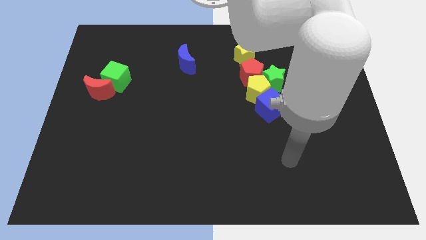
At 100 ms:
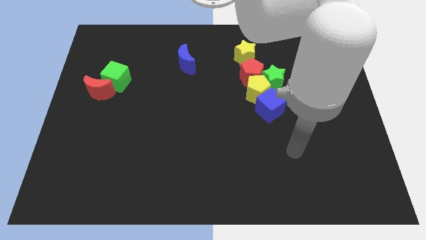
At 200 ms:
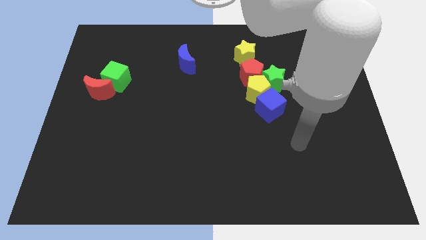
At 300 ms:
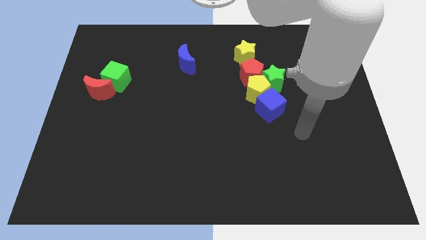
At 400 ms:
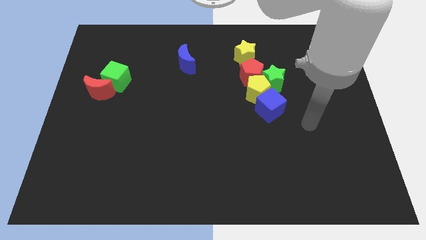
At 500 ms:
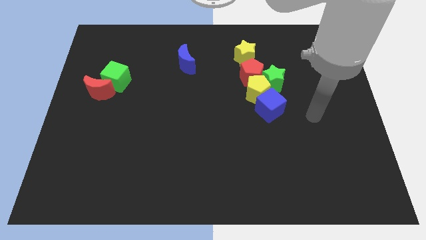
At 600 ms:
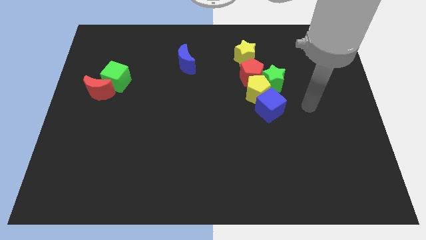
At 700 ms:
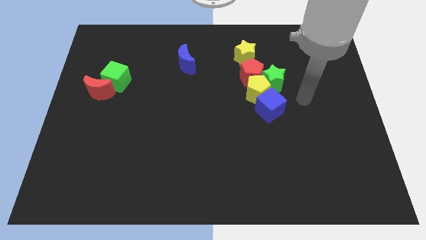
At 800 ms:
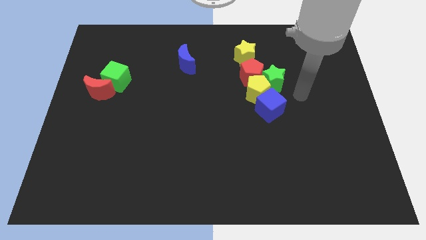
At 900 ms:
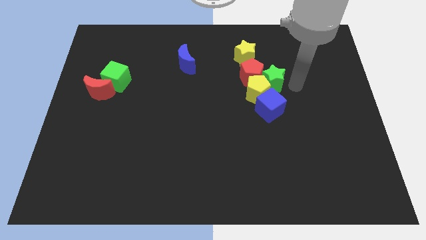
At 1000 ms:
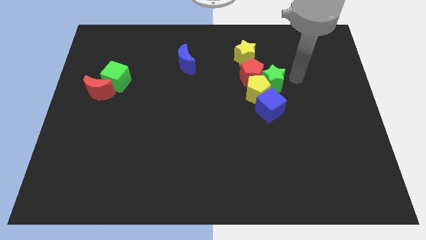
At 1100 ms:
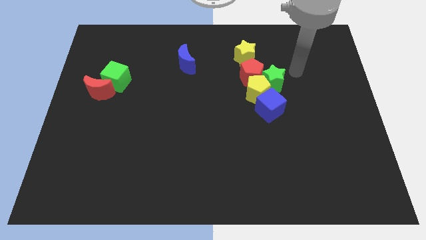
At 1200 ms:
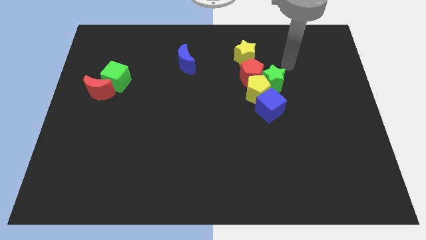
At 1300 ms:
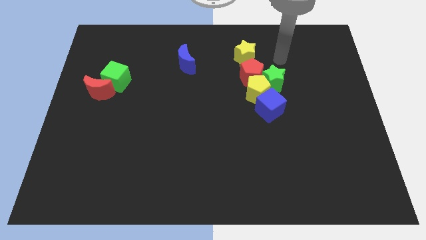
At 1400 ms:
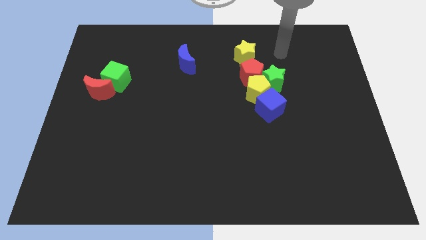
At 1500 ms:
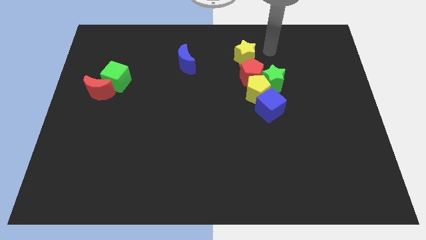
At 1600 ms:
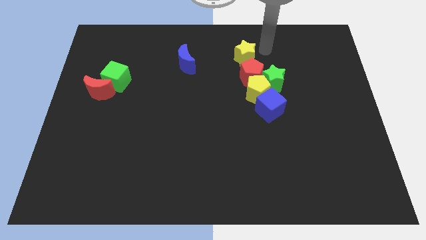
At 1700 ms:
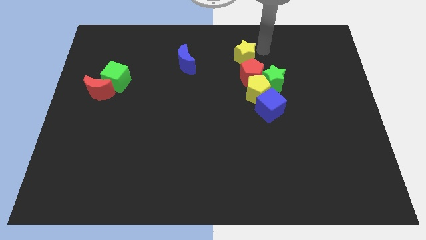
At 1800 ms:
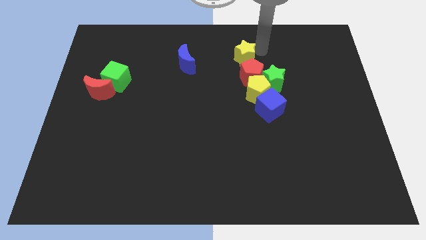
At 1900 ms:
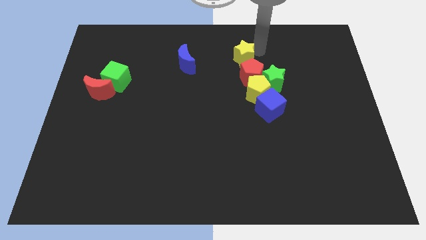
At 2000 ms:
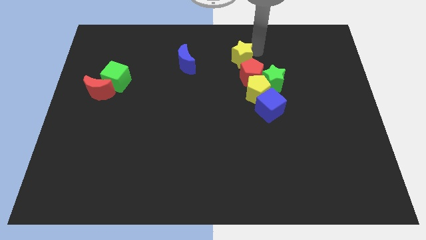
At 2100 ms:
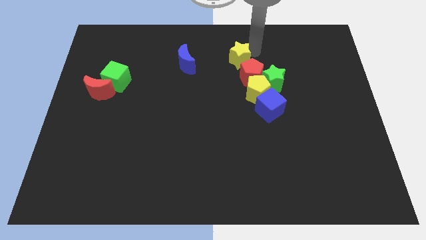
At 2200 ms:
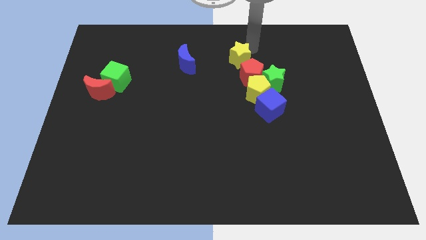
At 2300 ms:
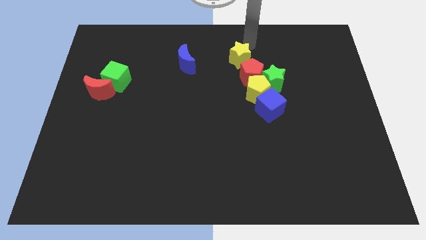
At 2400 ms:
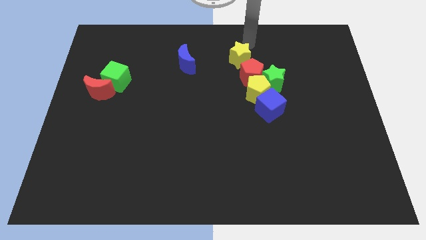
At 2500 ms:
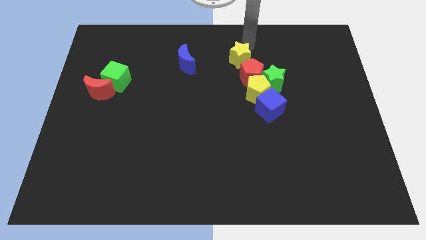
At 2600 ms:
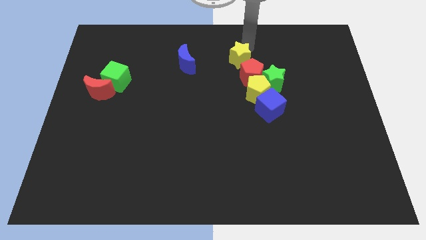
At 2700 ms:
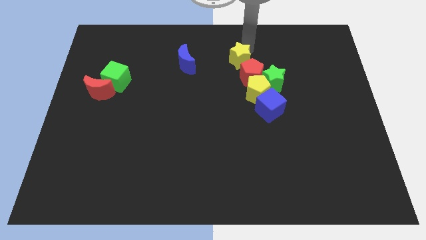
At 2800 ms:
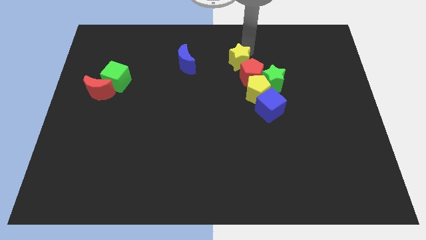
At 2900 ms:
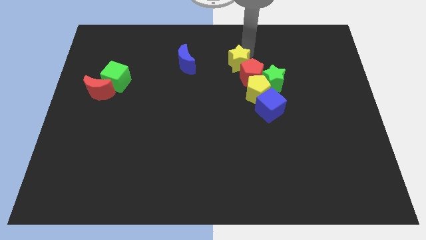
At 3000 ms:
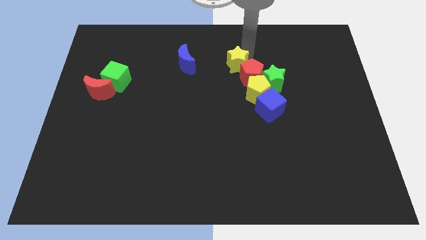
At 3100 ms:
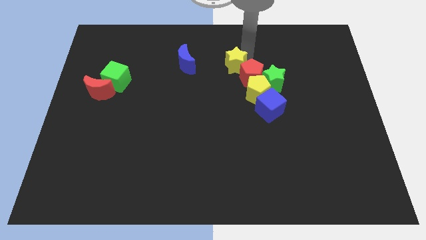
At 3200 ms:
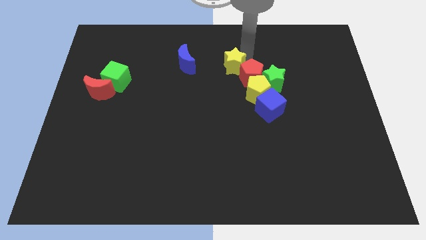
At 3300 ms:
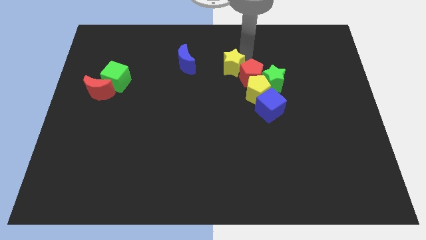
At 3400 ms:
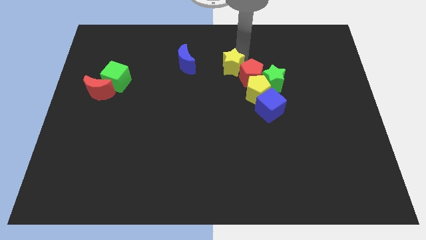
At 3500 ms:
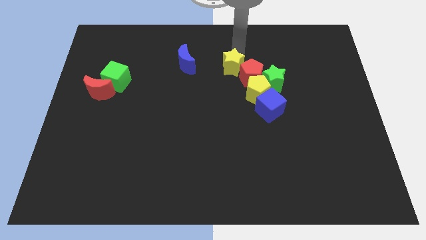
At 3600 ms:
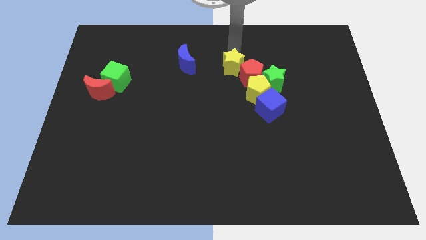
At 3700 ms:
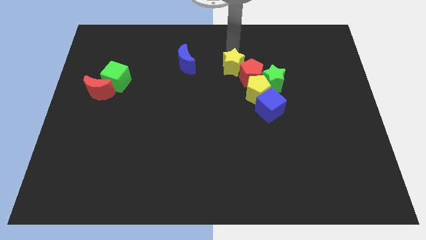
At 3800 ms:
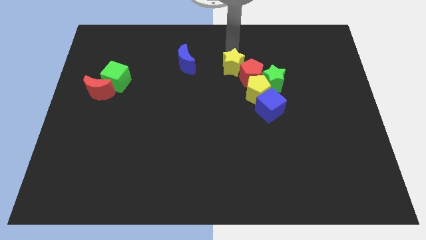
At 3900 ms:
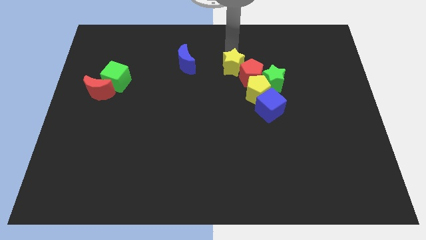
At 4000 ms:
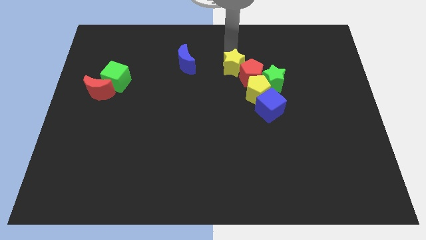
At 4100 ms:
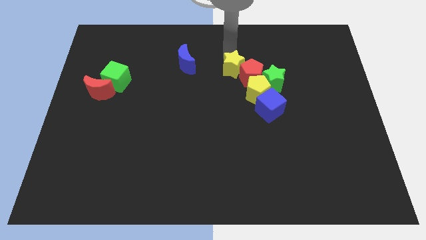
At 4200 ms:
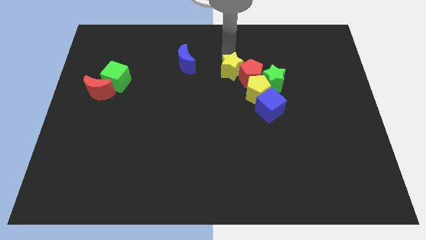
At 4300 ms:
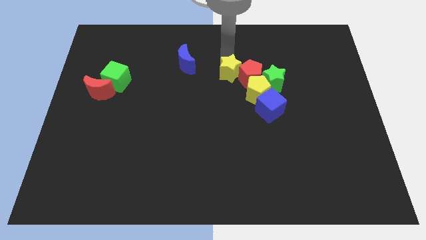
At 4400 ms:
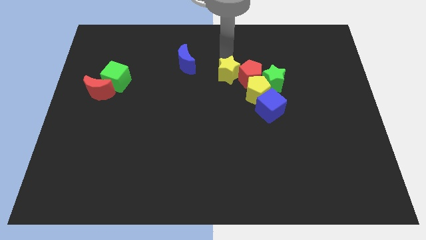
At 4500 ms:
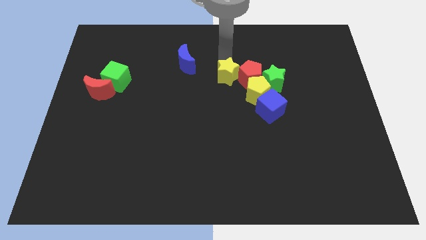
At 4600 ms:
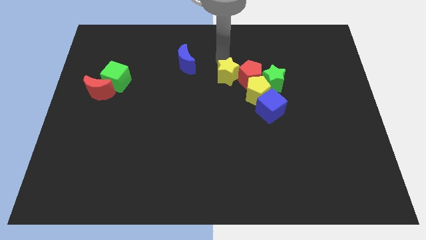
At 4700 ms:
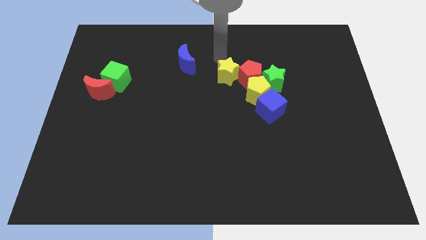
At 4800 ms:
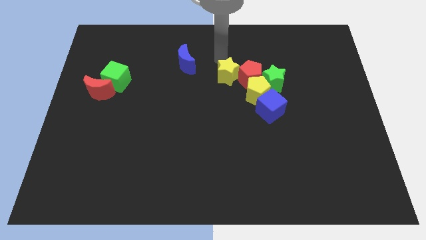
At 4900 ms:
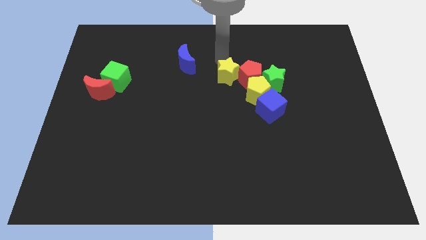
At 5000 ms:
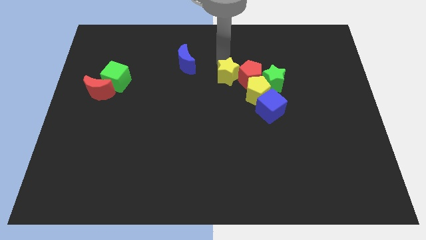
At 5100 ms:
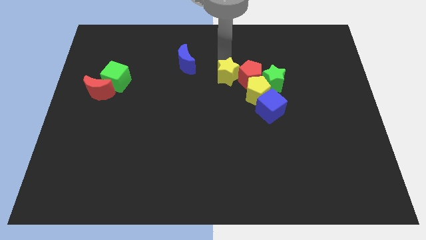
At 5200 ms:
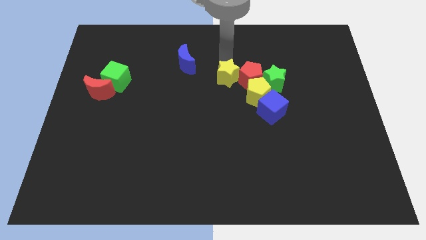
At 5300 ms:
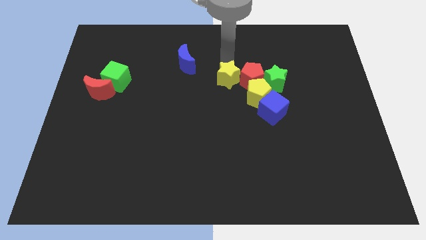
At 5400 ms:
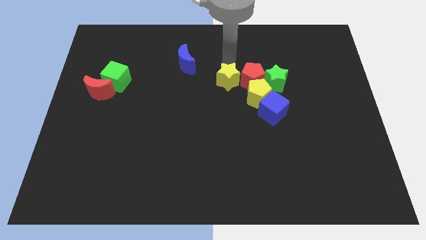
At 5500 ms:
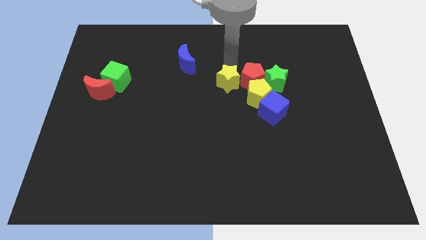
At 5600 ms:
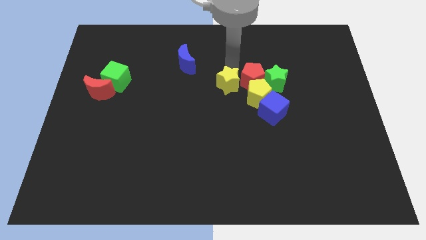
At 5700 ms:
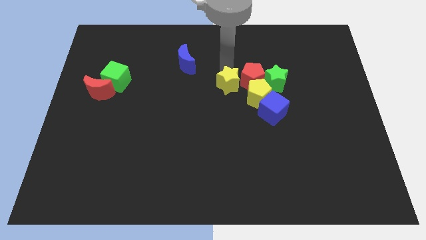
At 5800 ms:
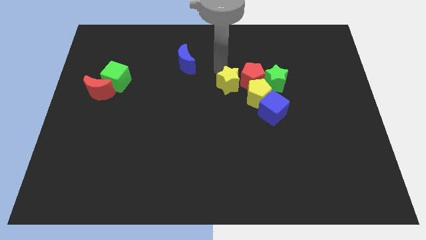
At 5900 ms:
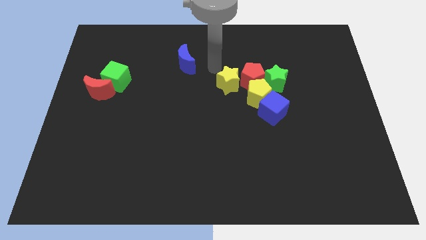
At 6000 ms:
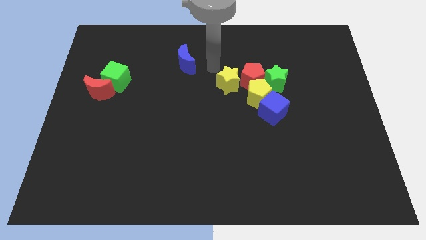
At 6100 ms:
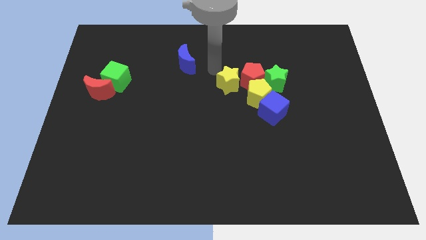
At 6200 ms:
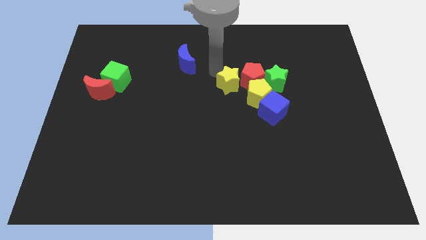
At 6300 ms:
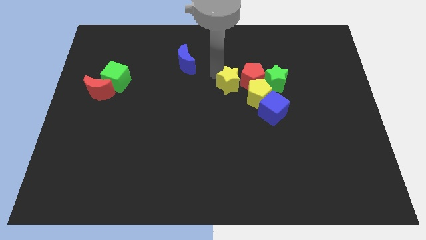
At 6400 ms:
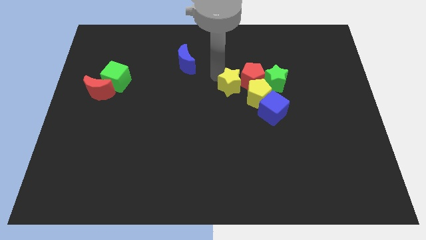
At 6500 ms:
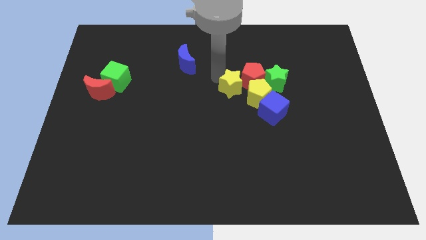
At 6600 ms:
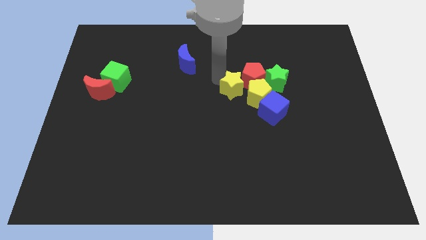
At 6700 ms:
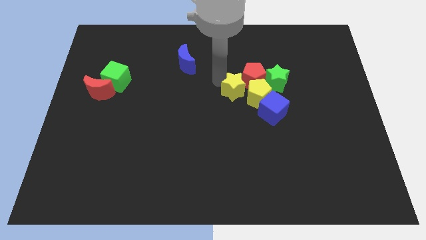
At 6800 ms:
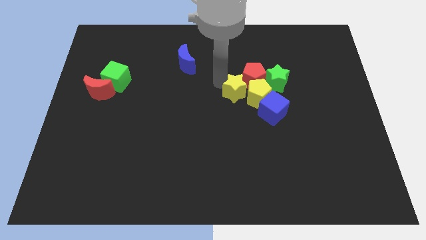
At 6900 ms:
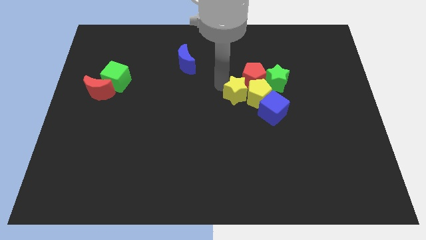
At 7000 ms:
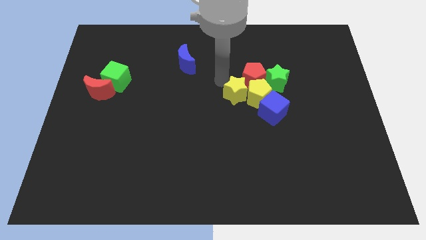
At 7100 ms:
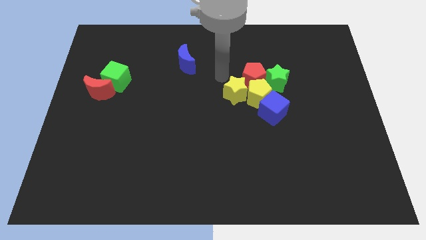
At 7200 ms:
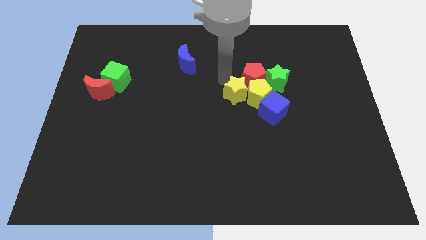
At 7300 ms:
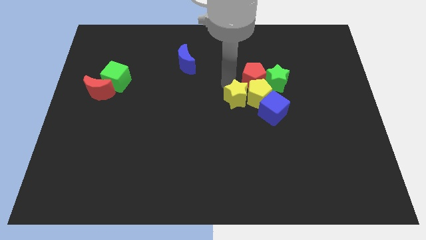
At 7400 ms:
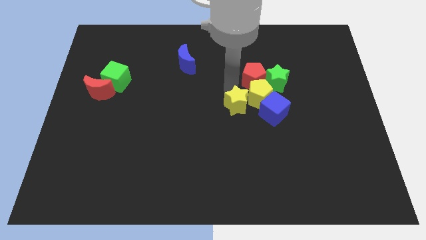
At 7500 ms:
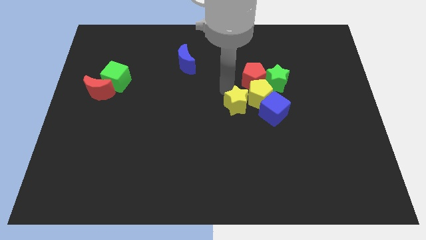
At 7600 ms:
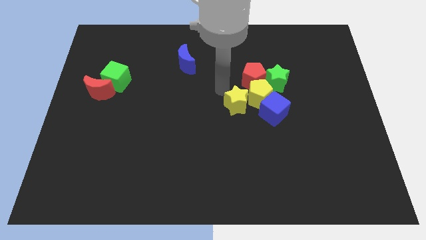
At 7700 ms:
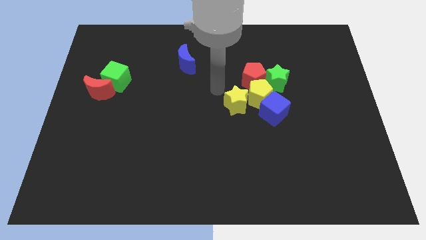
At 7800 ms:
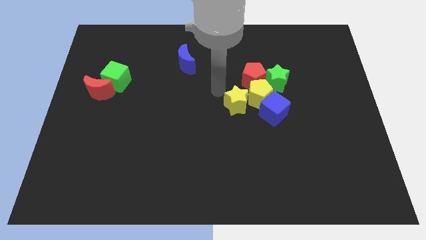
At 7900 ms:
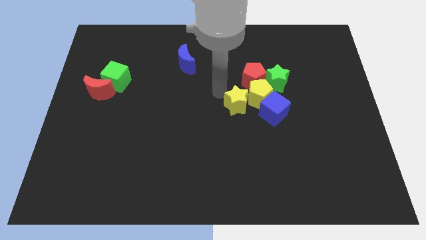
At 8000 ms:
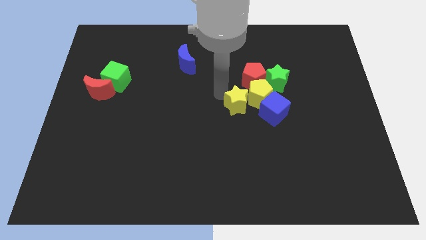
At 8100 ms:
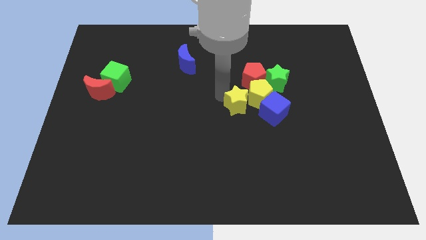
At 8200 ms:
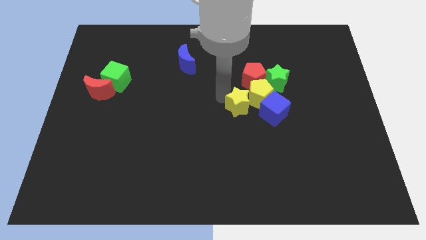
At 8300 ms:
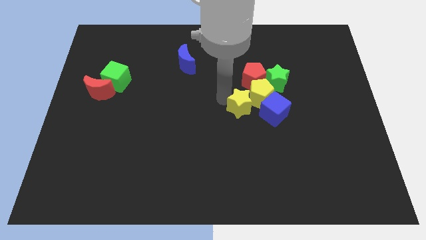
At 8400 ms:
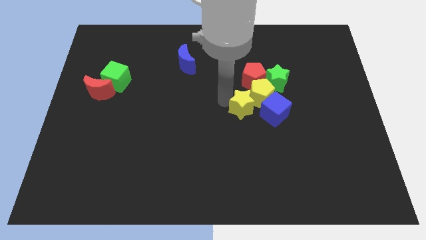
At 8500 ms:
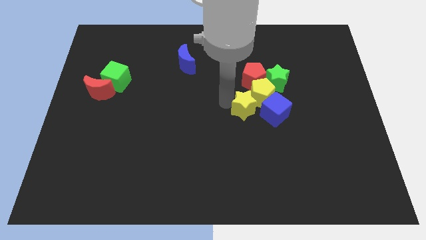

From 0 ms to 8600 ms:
push the yellow star below the yellow pentagon
